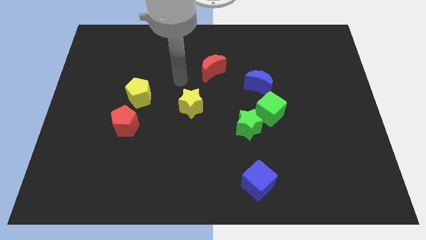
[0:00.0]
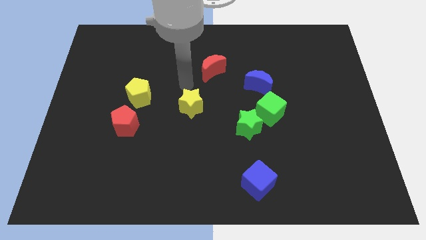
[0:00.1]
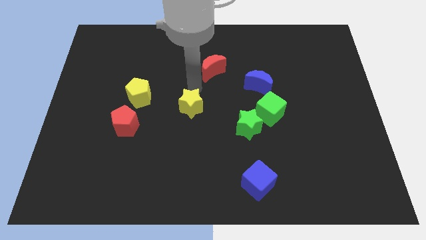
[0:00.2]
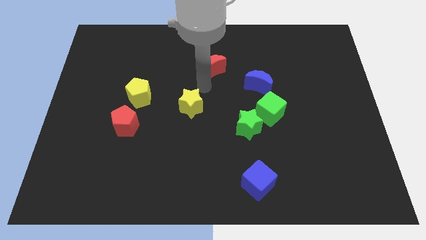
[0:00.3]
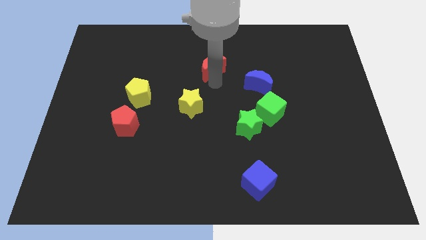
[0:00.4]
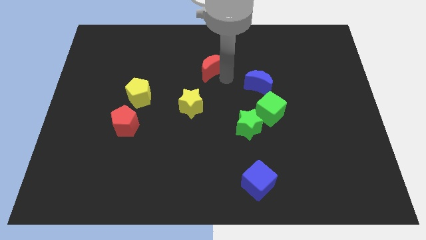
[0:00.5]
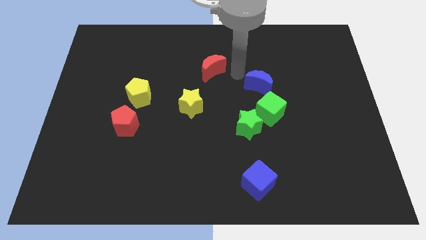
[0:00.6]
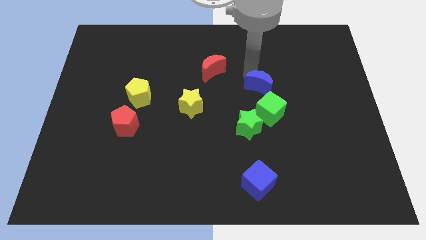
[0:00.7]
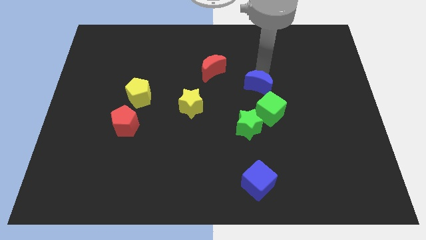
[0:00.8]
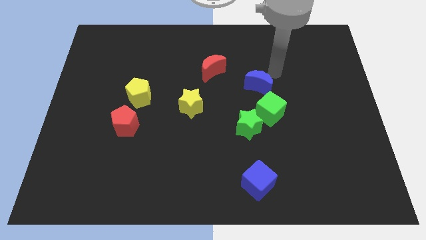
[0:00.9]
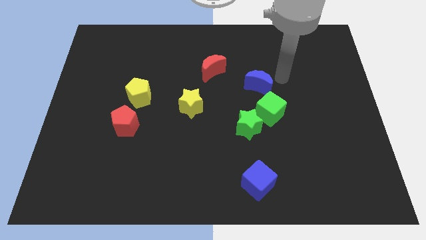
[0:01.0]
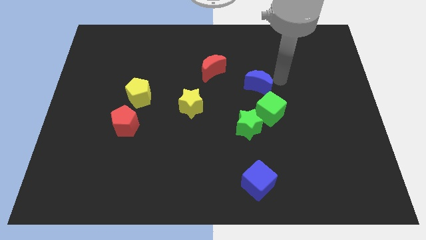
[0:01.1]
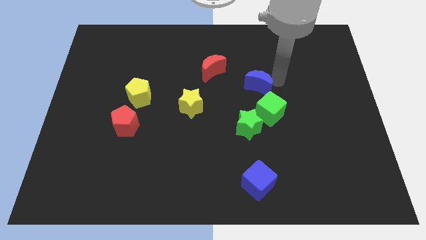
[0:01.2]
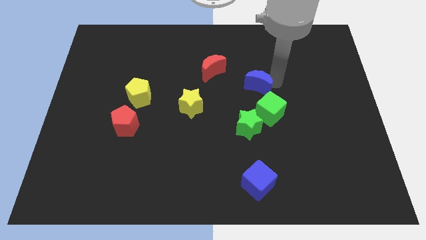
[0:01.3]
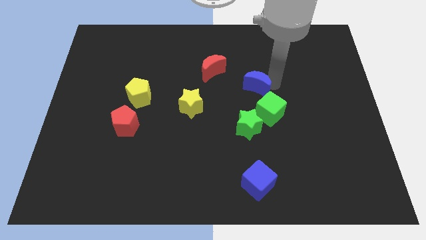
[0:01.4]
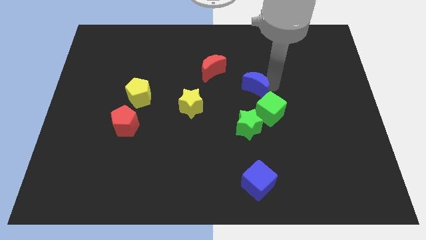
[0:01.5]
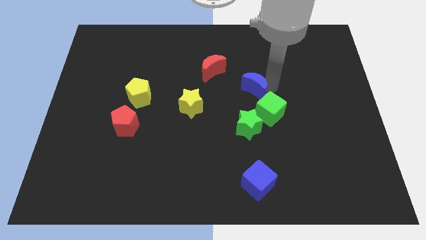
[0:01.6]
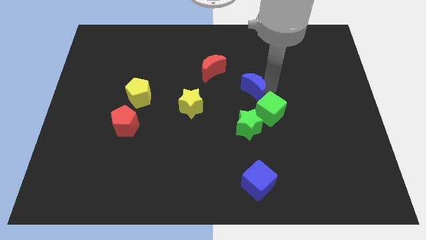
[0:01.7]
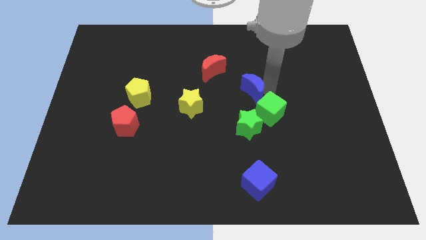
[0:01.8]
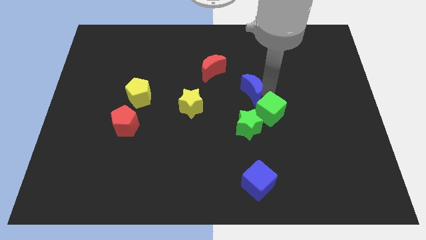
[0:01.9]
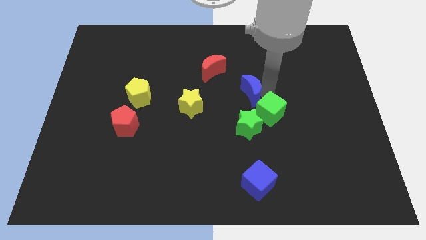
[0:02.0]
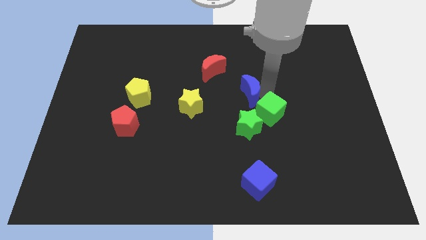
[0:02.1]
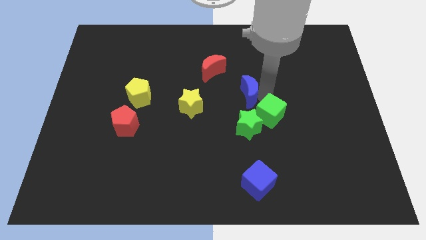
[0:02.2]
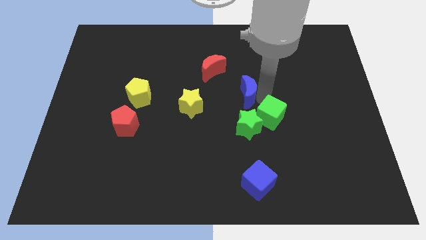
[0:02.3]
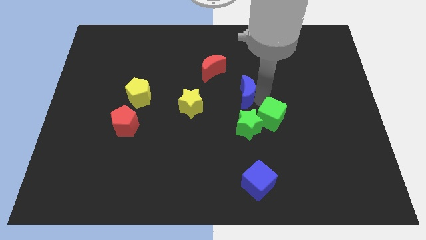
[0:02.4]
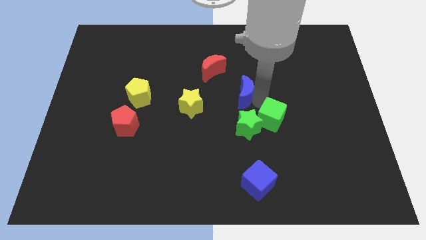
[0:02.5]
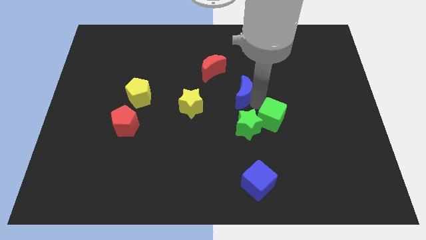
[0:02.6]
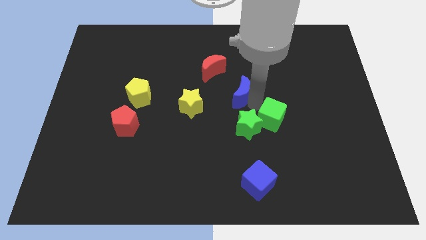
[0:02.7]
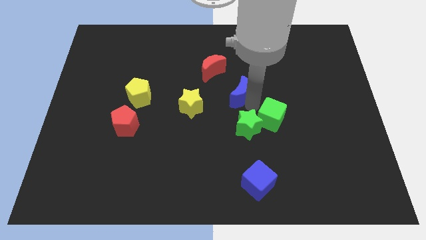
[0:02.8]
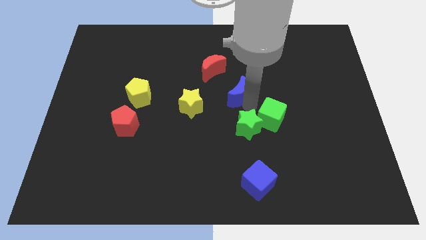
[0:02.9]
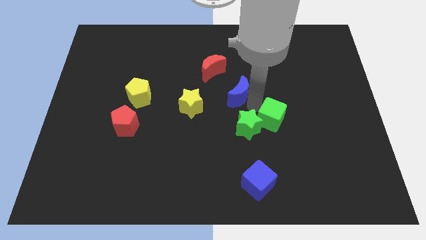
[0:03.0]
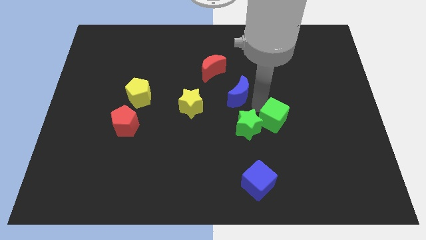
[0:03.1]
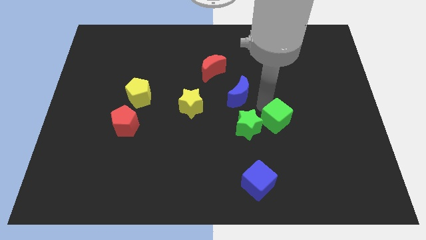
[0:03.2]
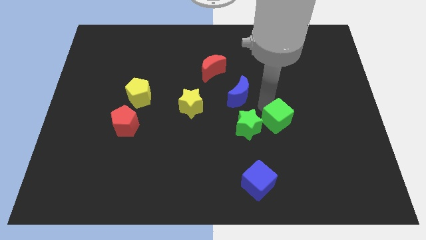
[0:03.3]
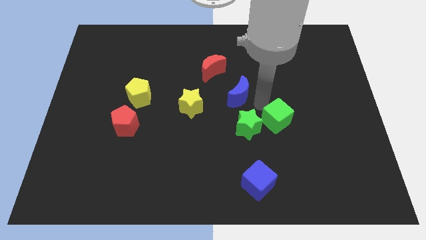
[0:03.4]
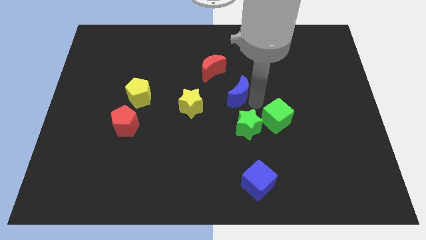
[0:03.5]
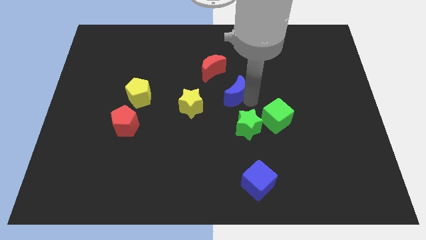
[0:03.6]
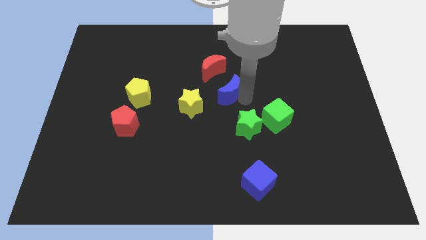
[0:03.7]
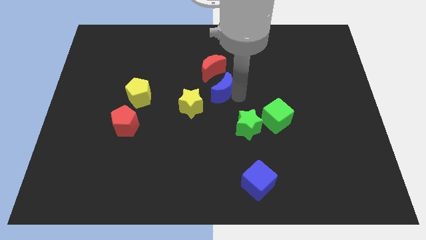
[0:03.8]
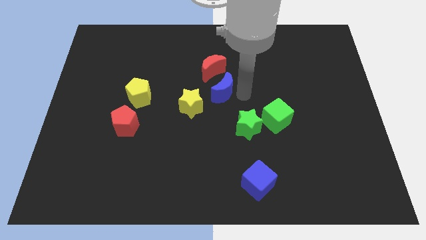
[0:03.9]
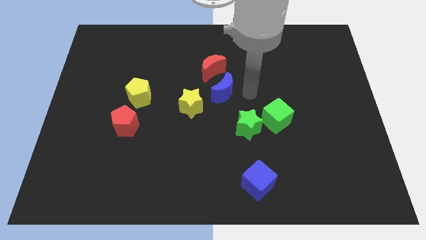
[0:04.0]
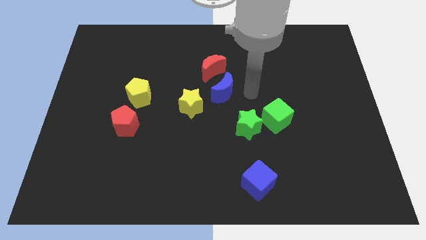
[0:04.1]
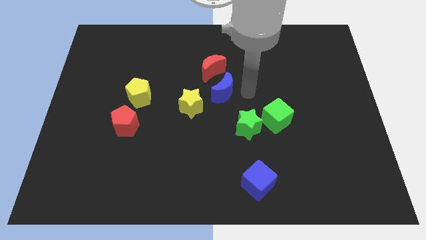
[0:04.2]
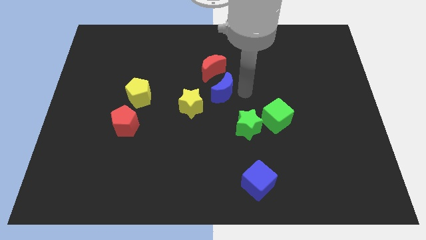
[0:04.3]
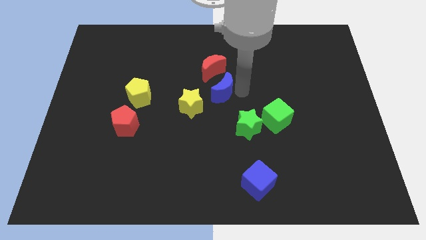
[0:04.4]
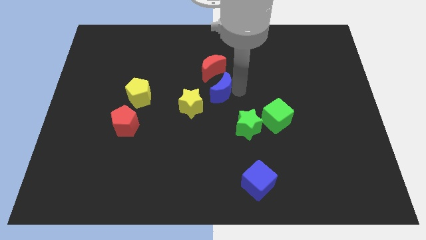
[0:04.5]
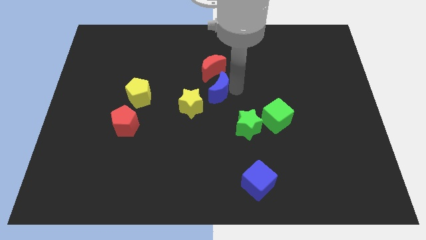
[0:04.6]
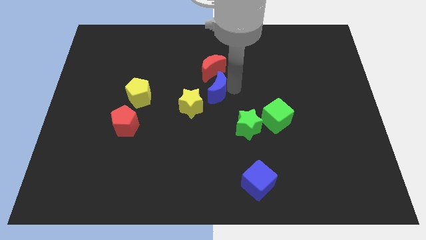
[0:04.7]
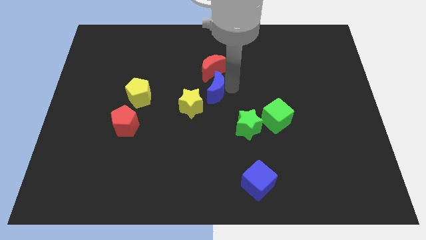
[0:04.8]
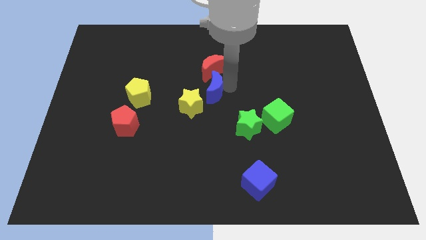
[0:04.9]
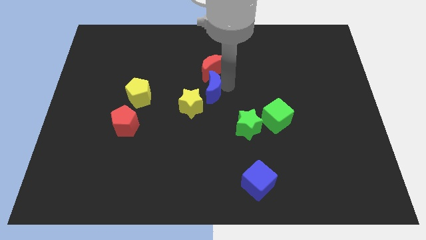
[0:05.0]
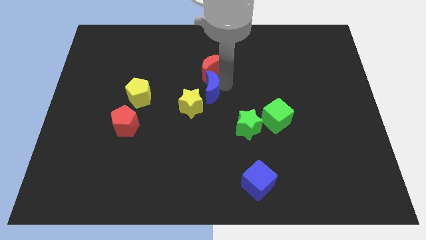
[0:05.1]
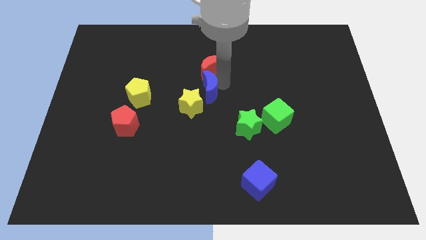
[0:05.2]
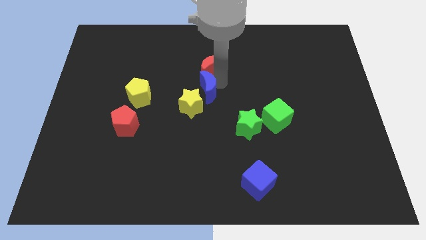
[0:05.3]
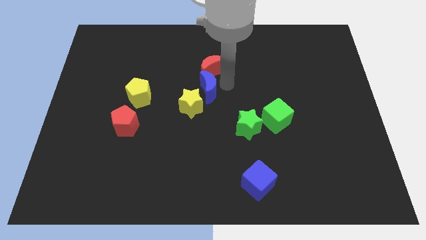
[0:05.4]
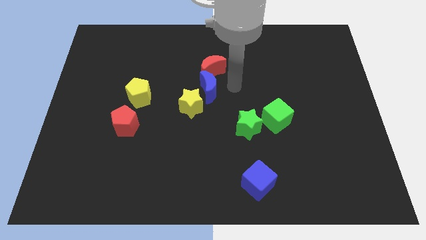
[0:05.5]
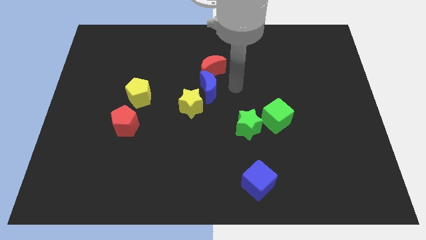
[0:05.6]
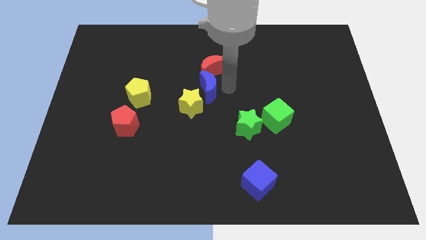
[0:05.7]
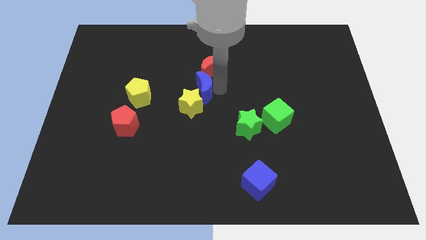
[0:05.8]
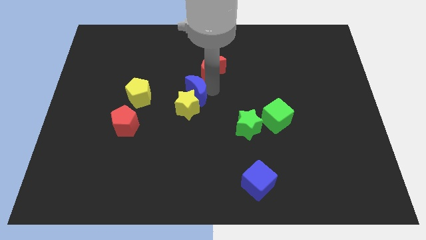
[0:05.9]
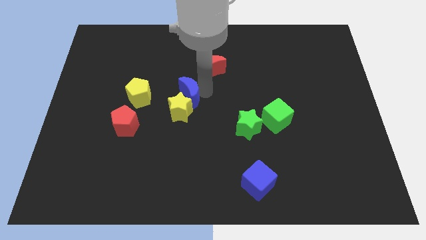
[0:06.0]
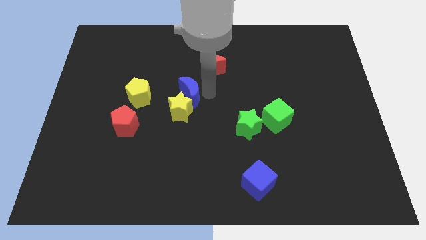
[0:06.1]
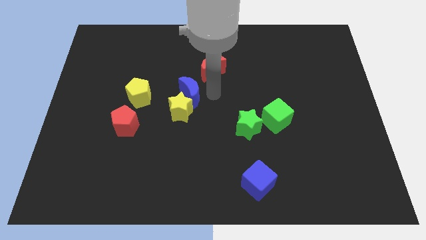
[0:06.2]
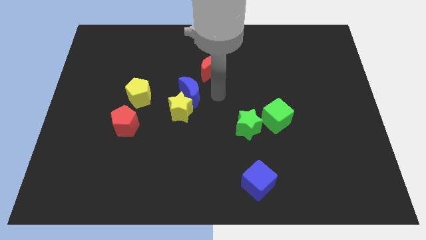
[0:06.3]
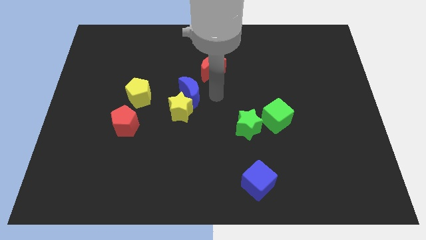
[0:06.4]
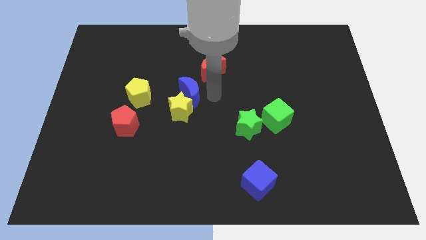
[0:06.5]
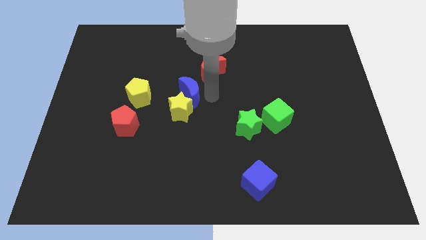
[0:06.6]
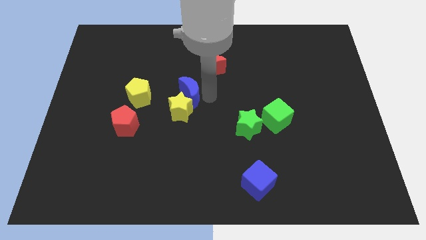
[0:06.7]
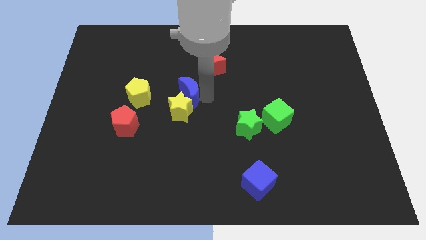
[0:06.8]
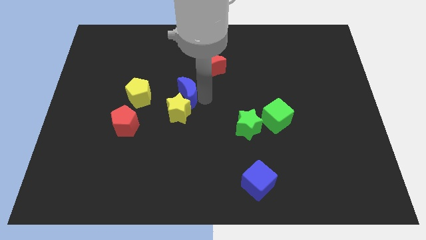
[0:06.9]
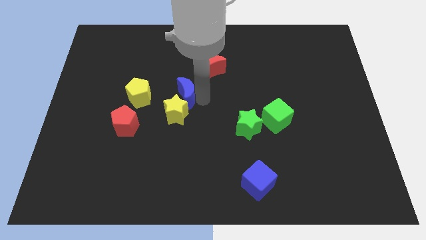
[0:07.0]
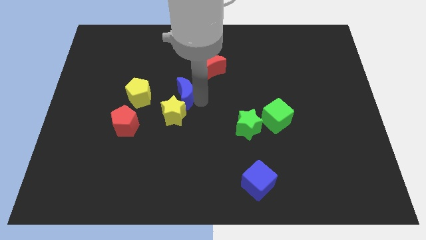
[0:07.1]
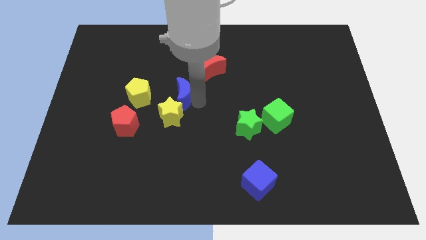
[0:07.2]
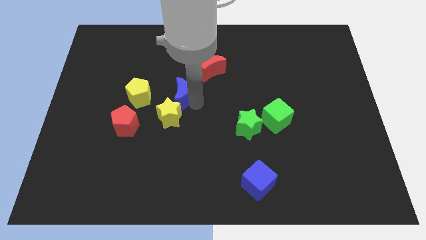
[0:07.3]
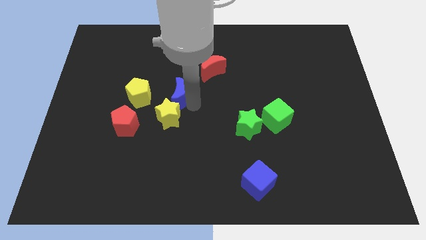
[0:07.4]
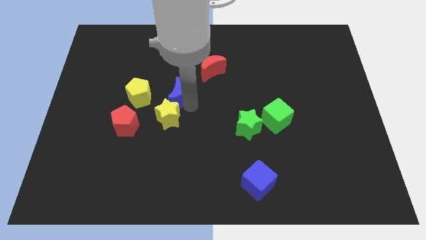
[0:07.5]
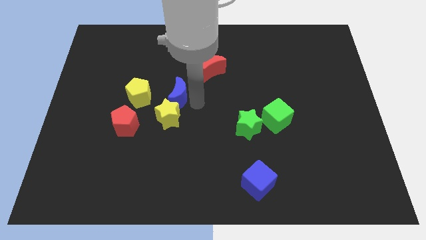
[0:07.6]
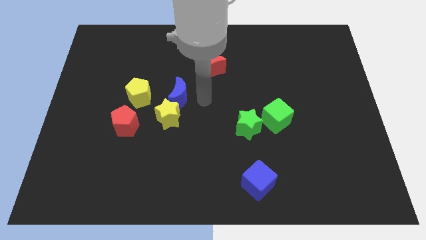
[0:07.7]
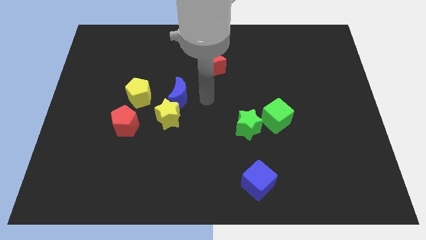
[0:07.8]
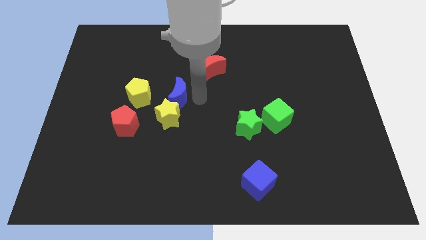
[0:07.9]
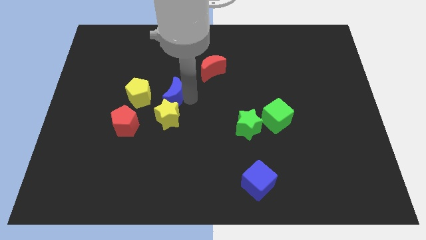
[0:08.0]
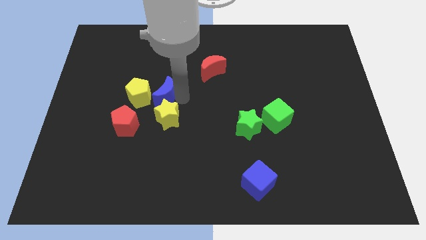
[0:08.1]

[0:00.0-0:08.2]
put the blue moon next to the yellow pentagon

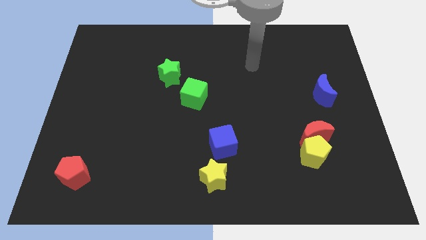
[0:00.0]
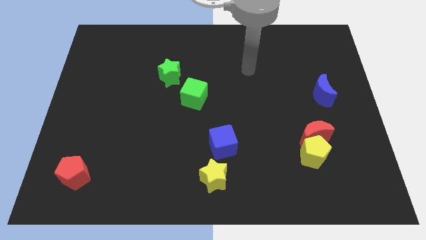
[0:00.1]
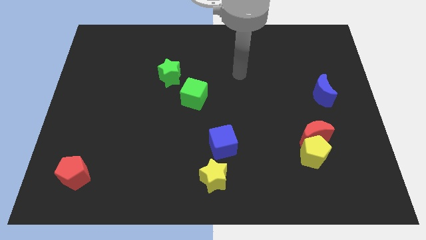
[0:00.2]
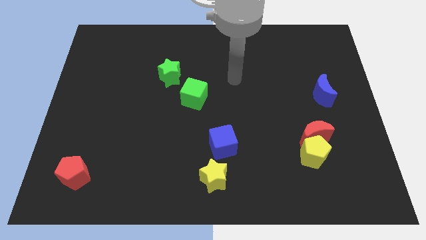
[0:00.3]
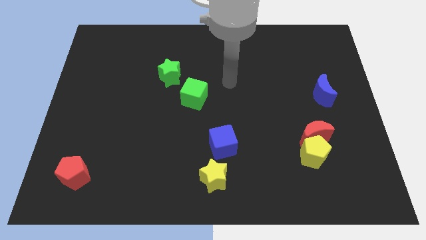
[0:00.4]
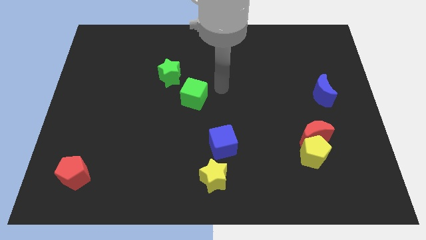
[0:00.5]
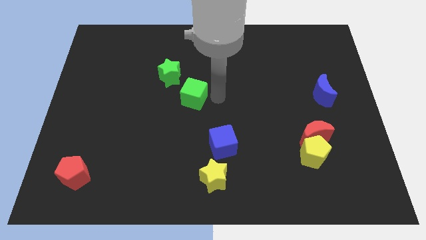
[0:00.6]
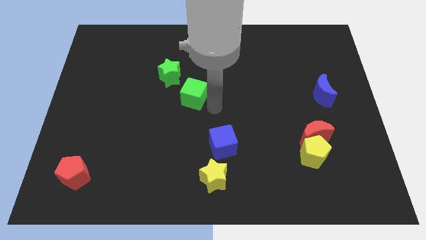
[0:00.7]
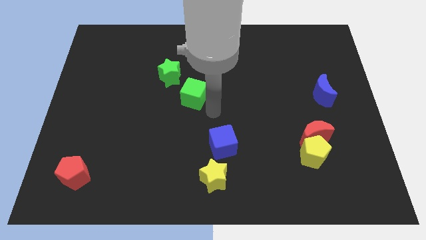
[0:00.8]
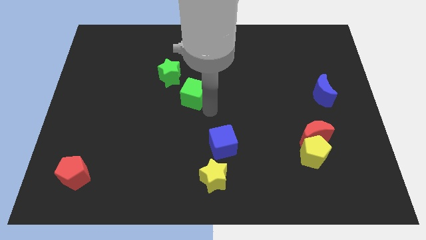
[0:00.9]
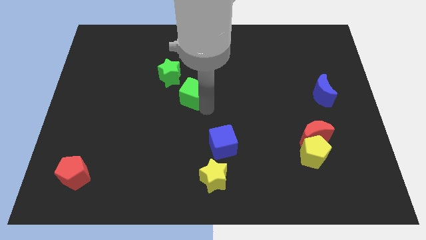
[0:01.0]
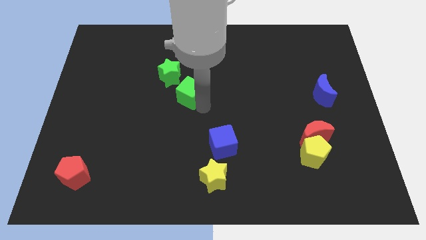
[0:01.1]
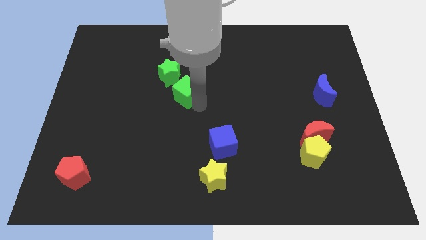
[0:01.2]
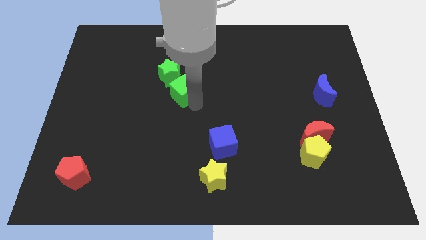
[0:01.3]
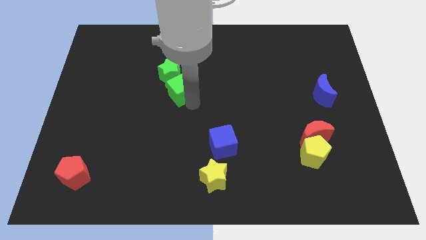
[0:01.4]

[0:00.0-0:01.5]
move the green cube next to the green star
